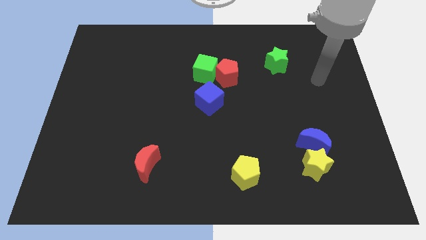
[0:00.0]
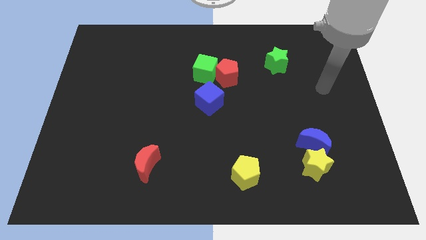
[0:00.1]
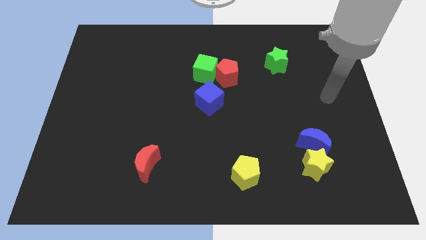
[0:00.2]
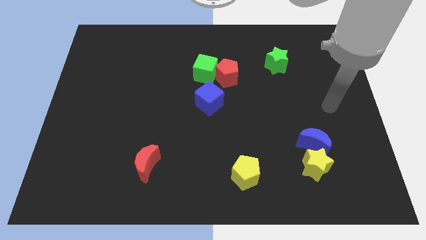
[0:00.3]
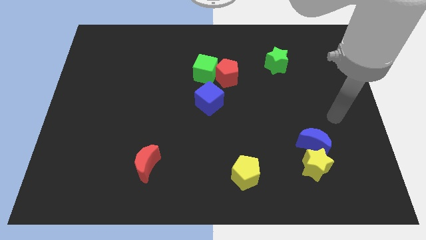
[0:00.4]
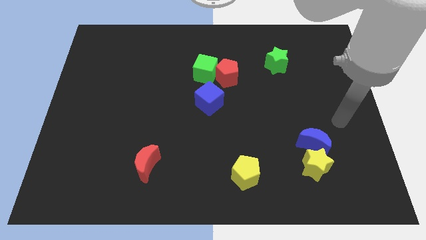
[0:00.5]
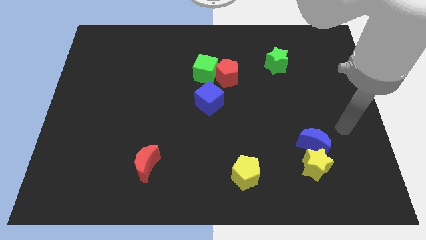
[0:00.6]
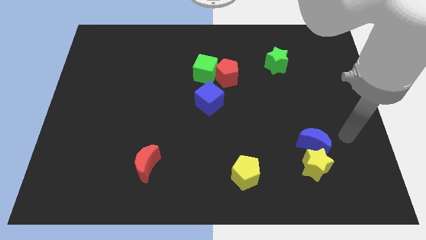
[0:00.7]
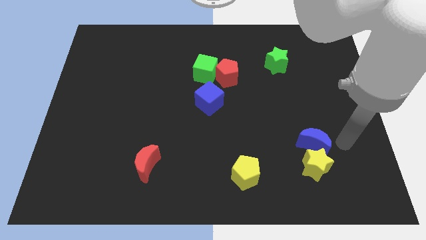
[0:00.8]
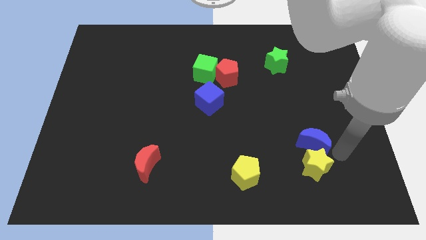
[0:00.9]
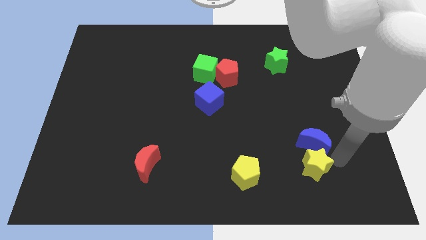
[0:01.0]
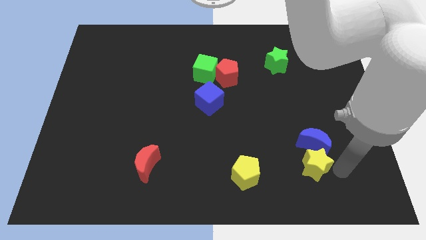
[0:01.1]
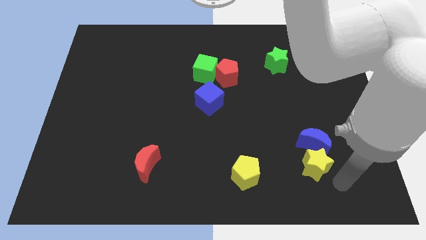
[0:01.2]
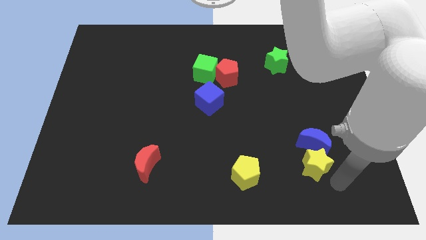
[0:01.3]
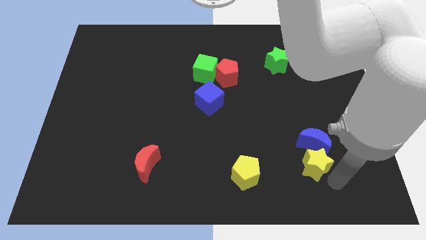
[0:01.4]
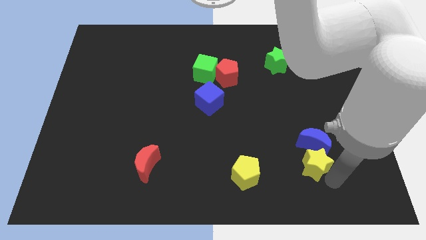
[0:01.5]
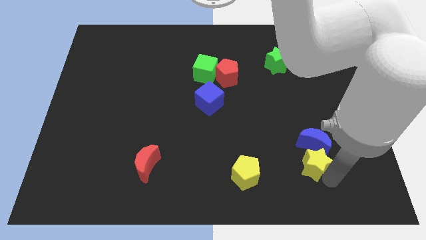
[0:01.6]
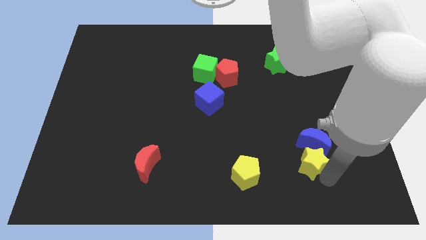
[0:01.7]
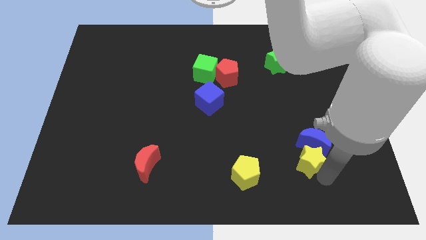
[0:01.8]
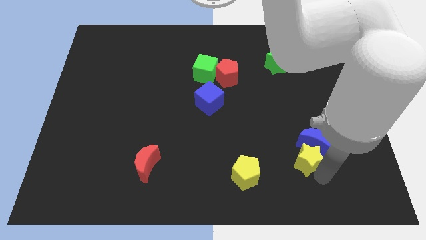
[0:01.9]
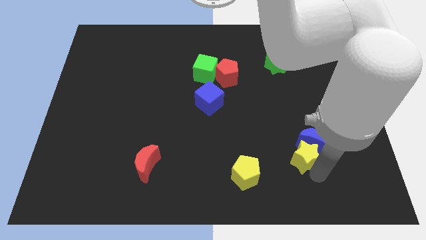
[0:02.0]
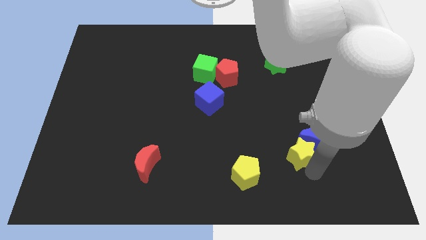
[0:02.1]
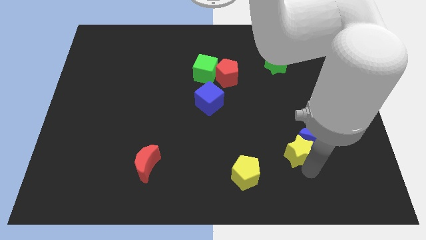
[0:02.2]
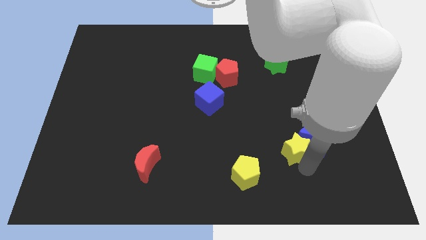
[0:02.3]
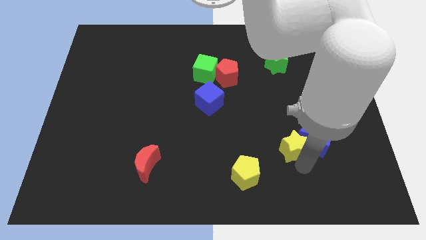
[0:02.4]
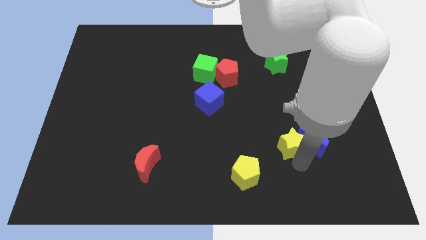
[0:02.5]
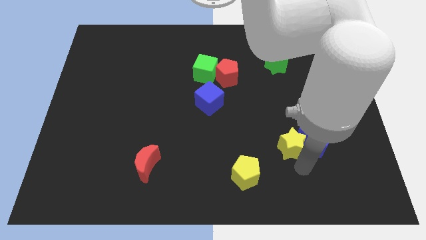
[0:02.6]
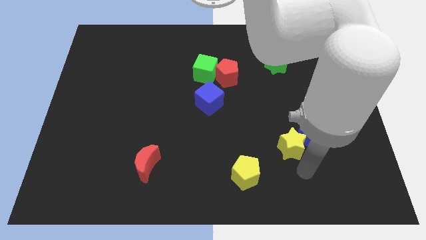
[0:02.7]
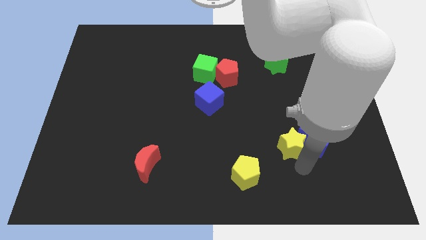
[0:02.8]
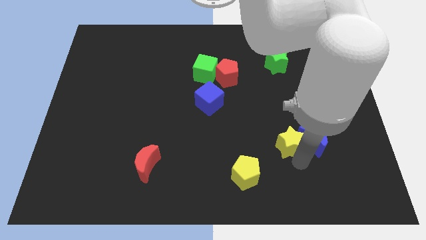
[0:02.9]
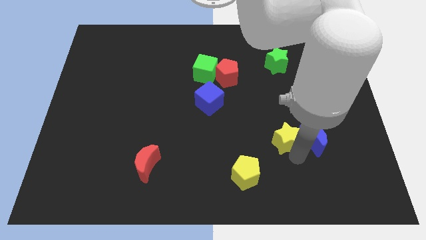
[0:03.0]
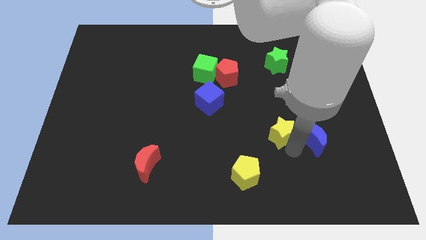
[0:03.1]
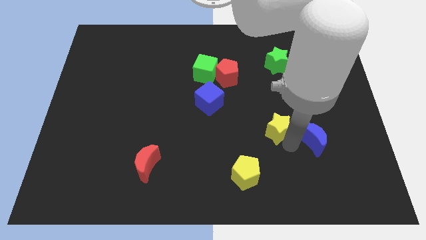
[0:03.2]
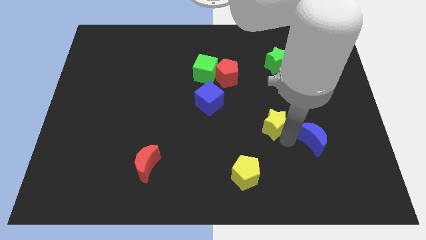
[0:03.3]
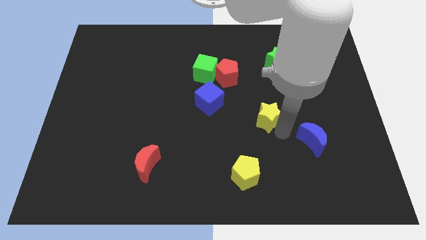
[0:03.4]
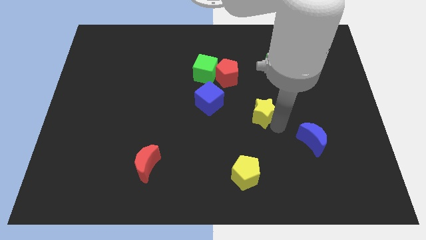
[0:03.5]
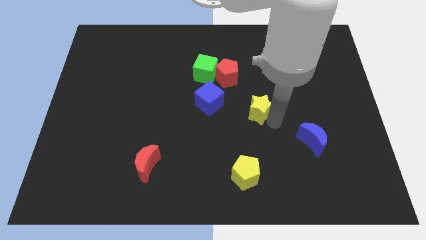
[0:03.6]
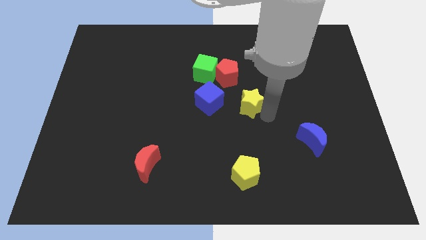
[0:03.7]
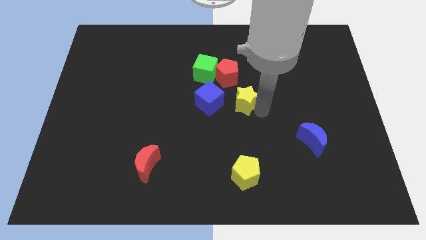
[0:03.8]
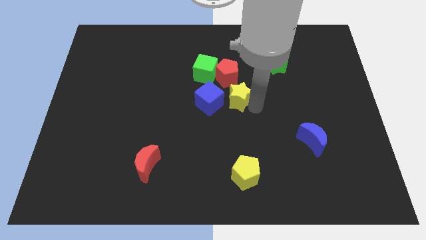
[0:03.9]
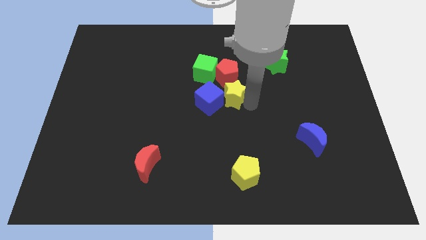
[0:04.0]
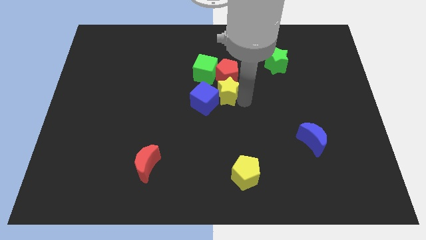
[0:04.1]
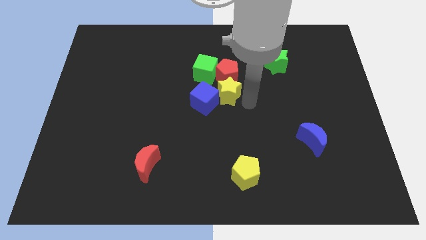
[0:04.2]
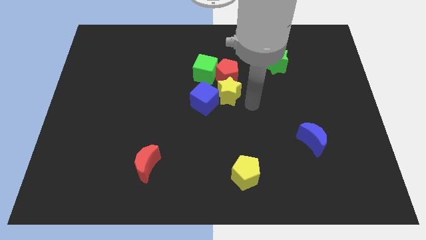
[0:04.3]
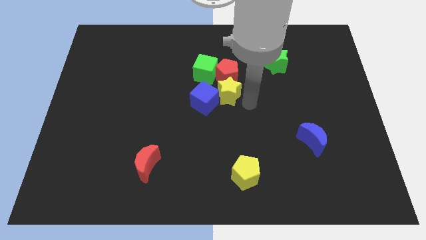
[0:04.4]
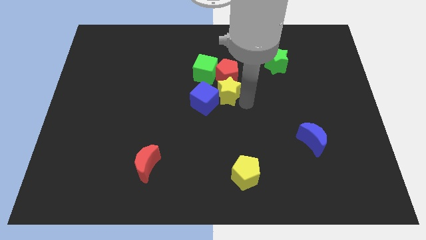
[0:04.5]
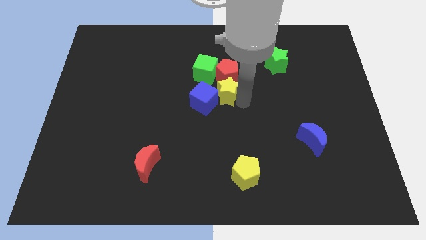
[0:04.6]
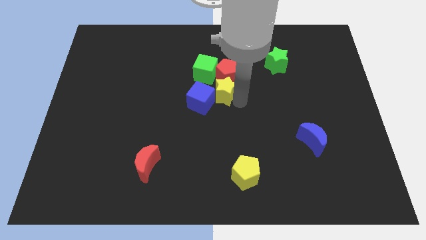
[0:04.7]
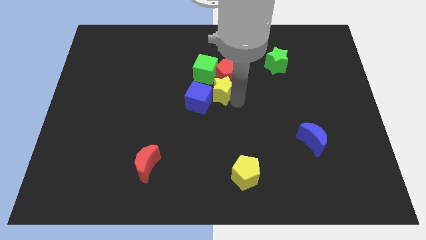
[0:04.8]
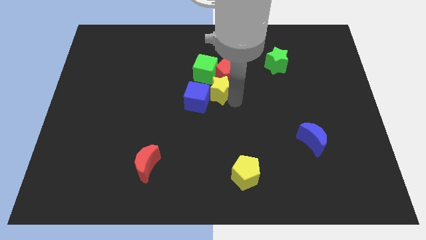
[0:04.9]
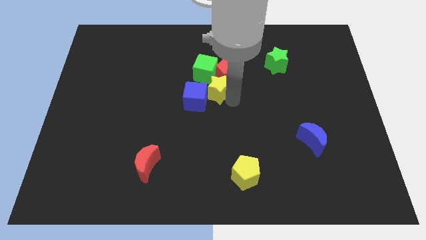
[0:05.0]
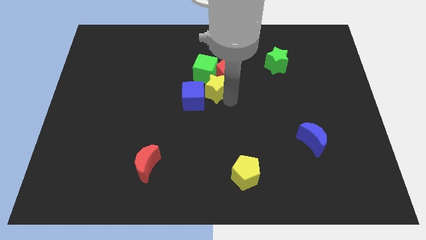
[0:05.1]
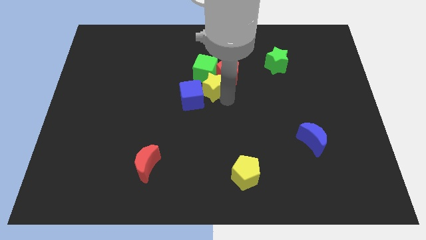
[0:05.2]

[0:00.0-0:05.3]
push the yellow star next to the green cube

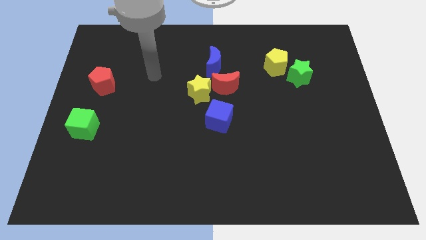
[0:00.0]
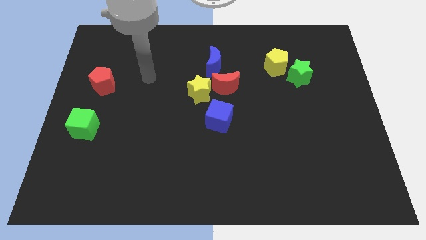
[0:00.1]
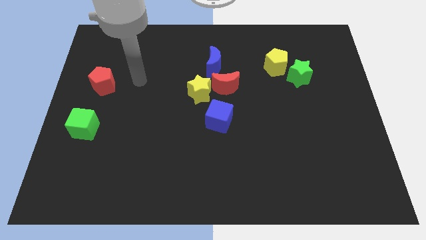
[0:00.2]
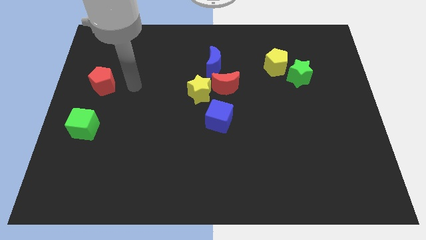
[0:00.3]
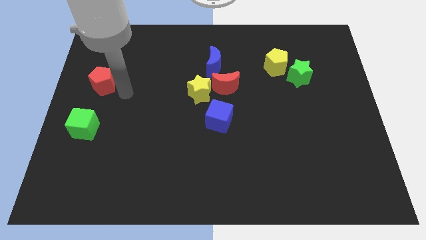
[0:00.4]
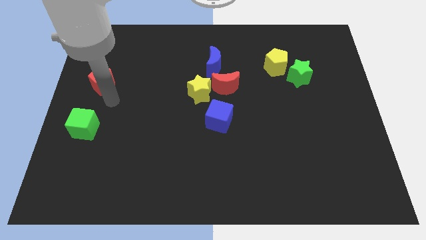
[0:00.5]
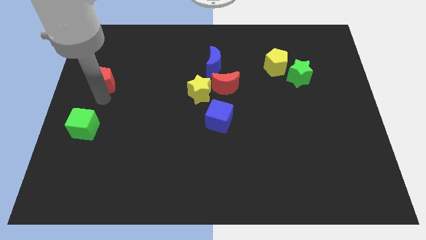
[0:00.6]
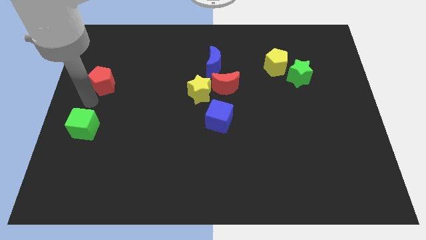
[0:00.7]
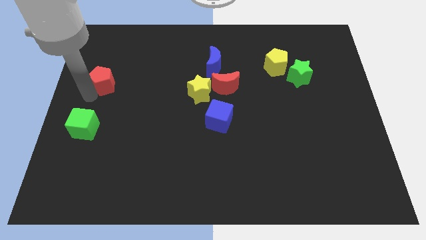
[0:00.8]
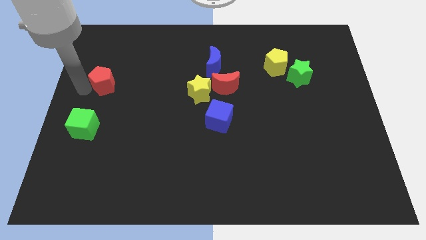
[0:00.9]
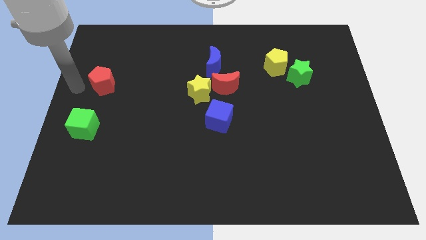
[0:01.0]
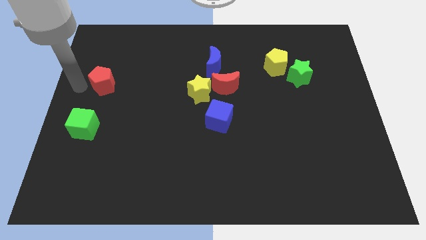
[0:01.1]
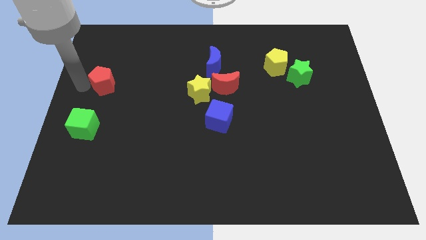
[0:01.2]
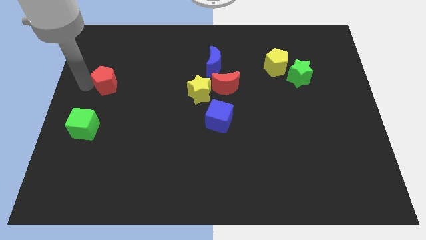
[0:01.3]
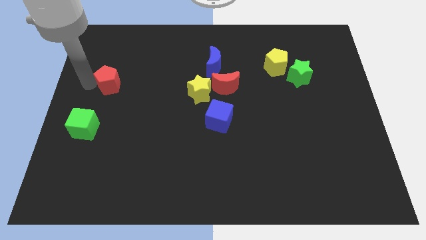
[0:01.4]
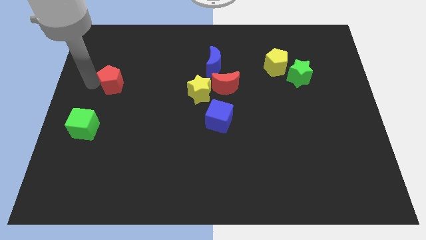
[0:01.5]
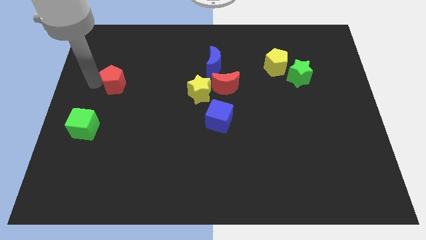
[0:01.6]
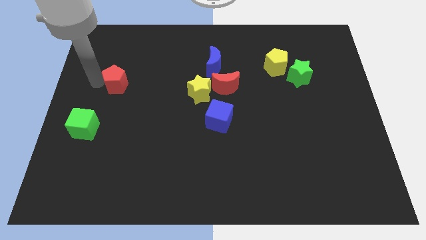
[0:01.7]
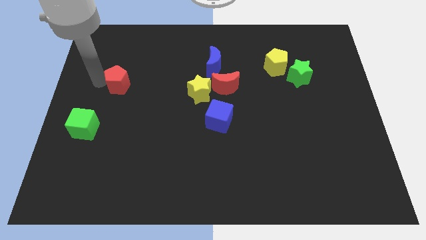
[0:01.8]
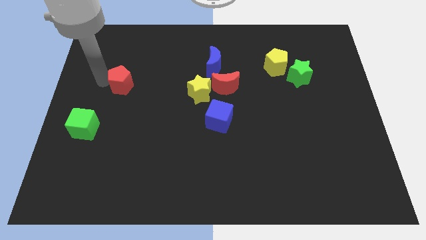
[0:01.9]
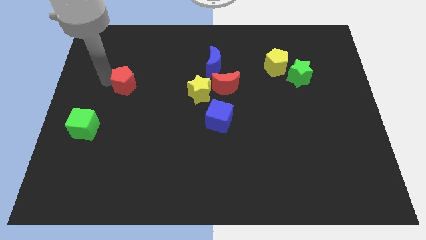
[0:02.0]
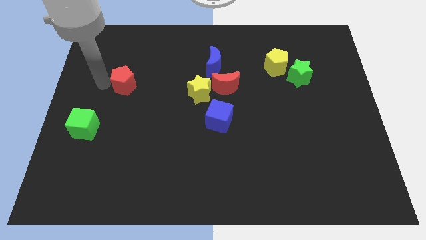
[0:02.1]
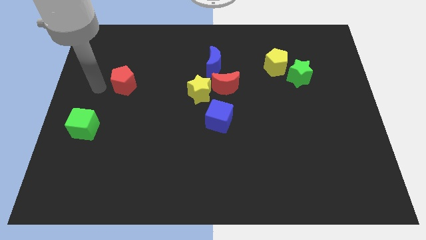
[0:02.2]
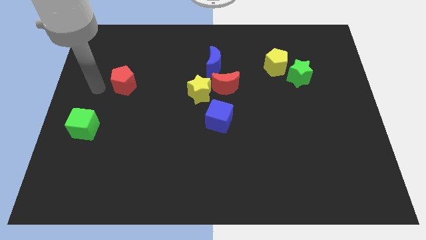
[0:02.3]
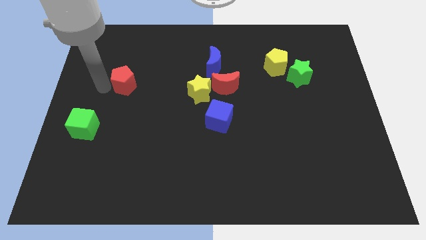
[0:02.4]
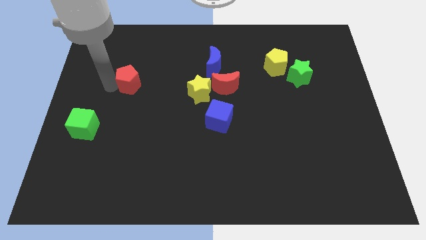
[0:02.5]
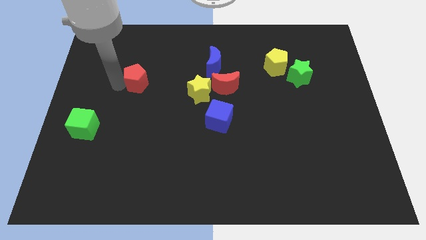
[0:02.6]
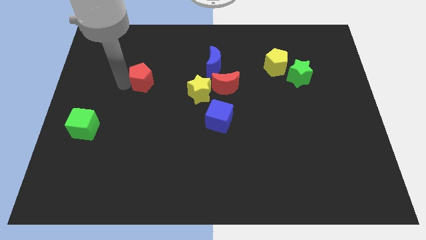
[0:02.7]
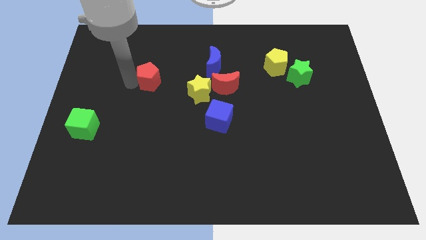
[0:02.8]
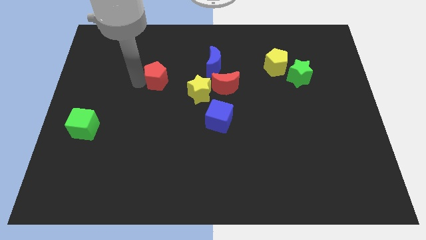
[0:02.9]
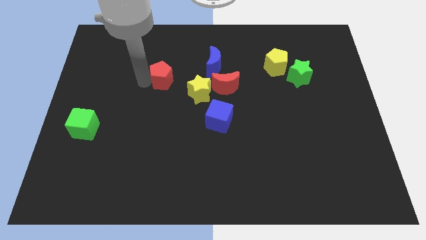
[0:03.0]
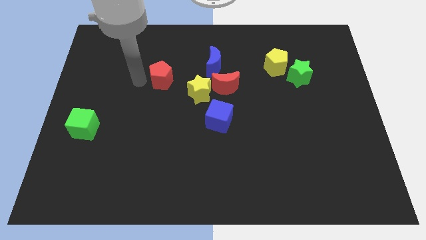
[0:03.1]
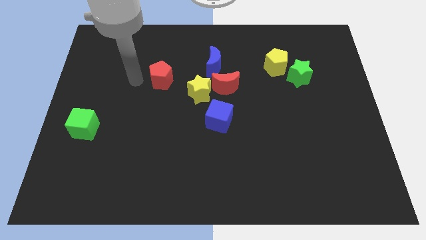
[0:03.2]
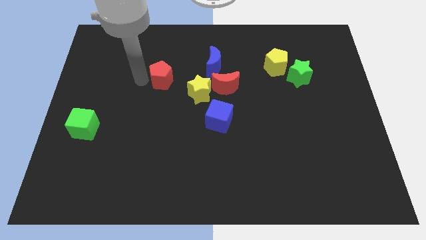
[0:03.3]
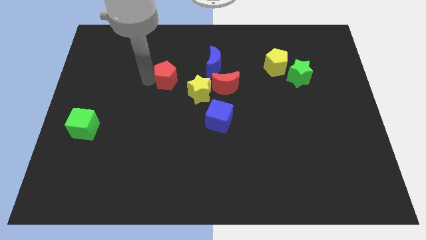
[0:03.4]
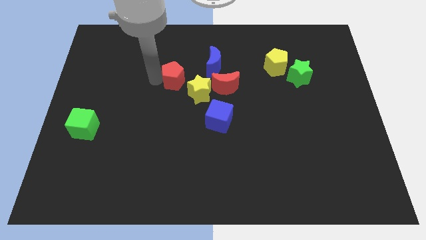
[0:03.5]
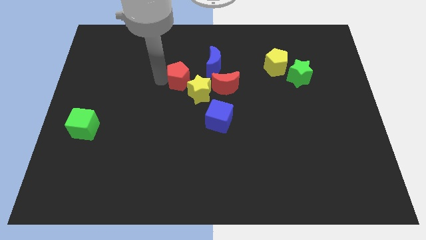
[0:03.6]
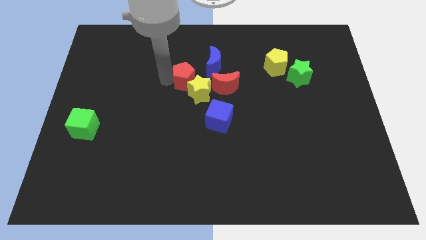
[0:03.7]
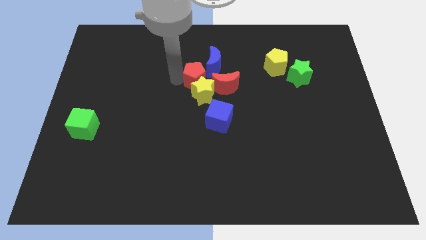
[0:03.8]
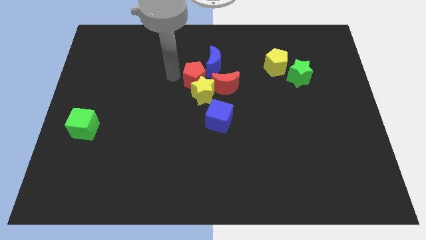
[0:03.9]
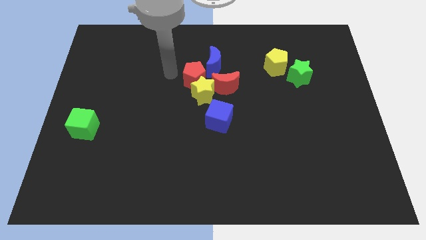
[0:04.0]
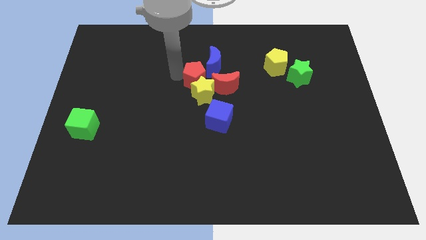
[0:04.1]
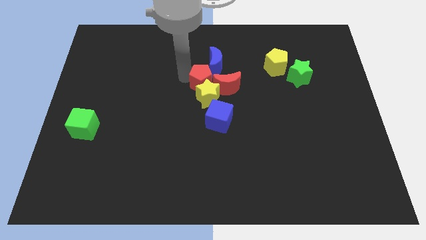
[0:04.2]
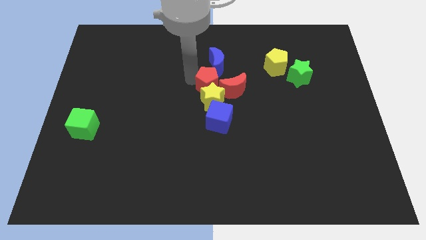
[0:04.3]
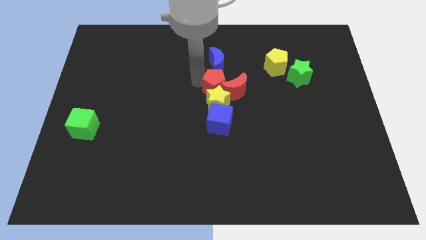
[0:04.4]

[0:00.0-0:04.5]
put the red pentagon towards the red moon
